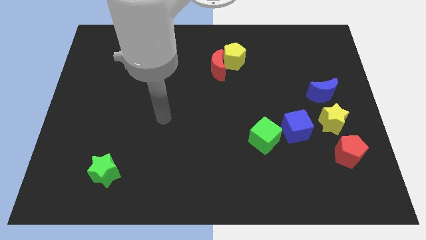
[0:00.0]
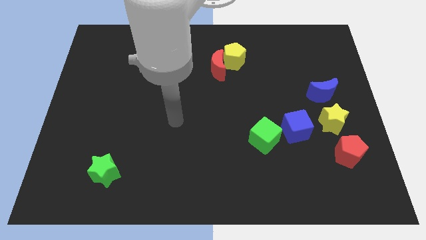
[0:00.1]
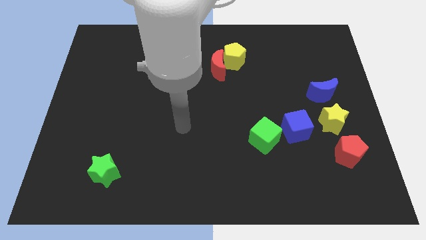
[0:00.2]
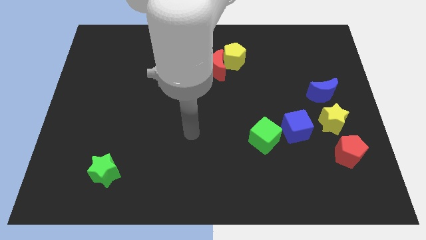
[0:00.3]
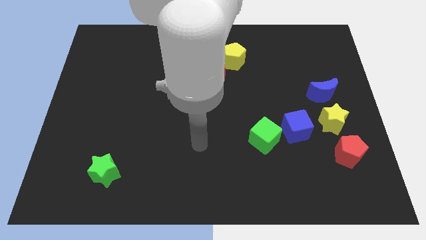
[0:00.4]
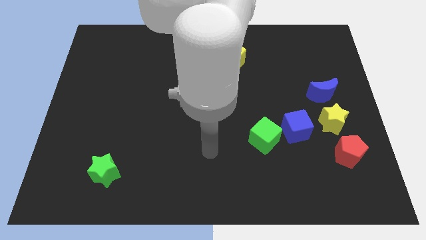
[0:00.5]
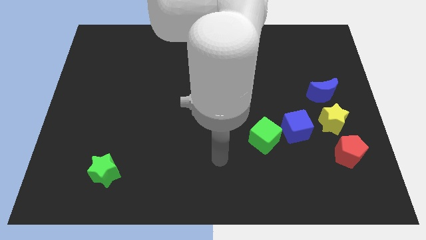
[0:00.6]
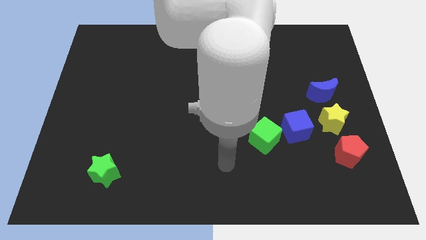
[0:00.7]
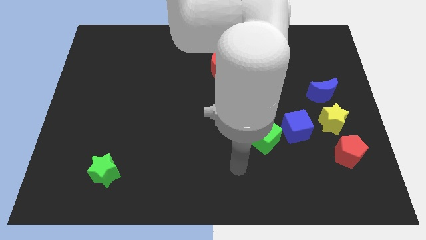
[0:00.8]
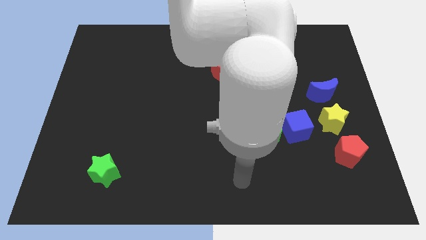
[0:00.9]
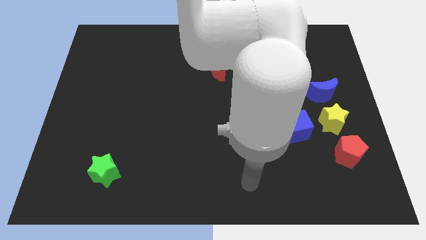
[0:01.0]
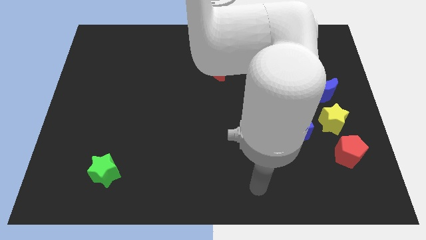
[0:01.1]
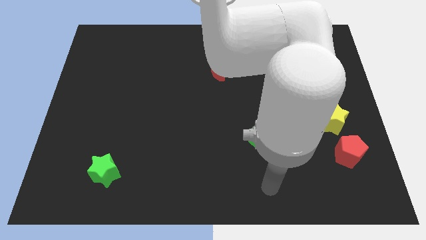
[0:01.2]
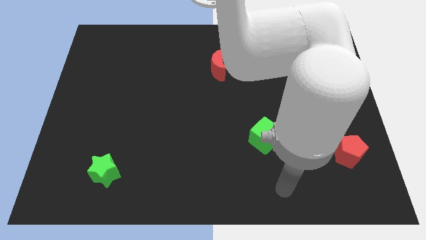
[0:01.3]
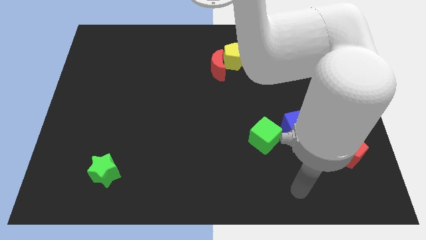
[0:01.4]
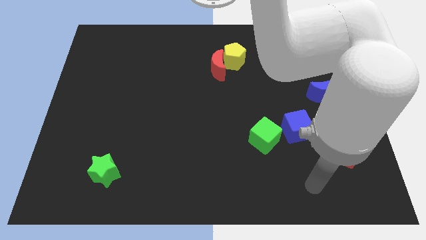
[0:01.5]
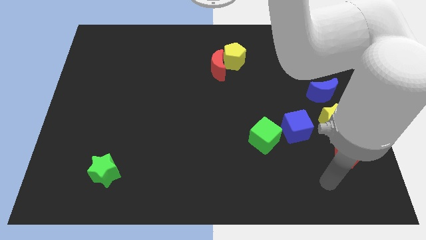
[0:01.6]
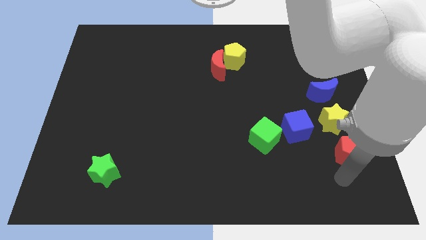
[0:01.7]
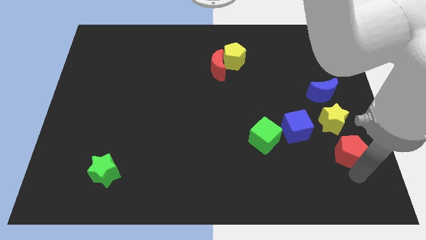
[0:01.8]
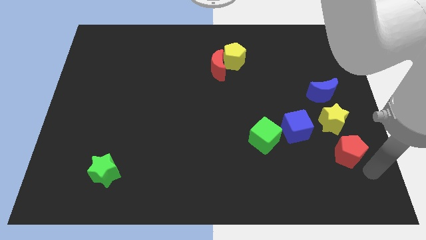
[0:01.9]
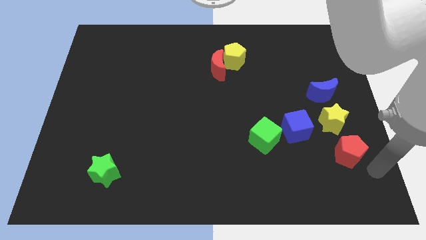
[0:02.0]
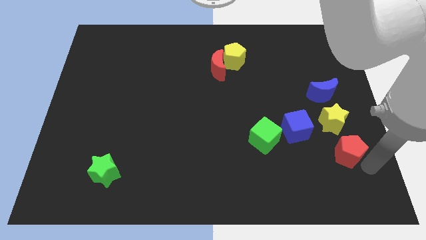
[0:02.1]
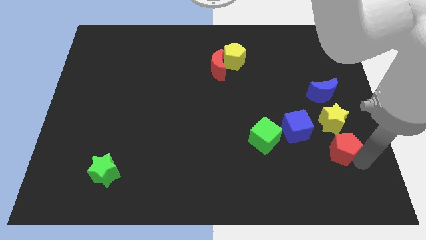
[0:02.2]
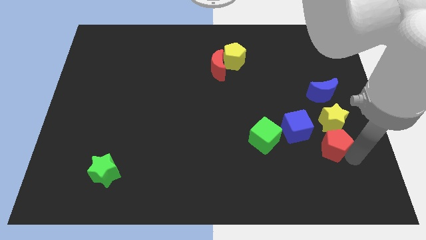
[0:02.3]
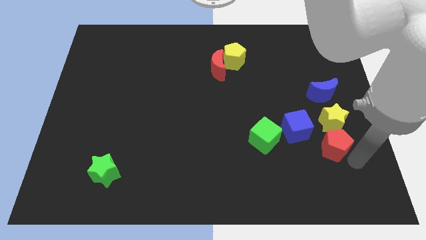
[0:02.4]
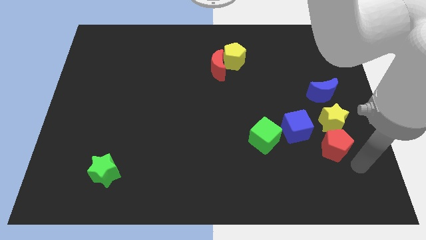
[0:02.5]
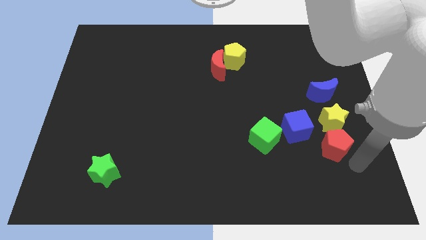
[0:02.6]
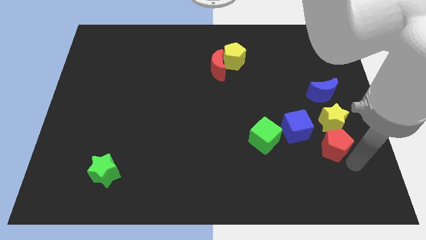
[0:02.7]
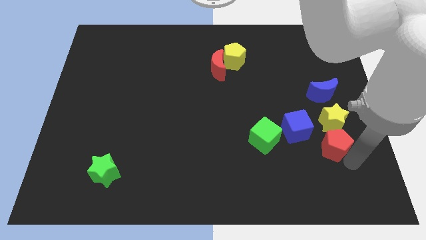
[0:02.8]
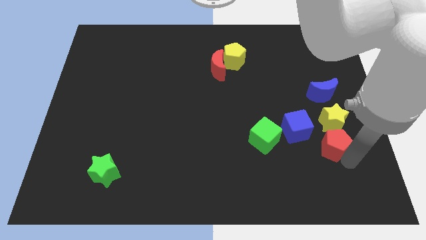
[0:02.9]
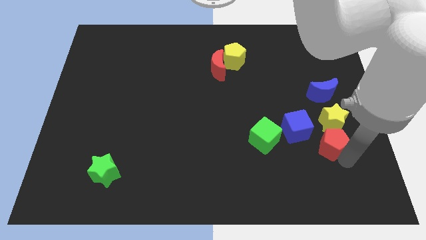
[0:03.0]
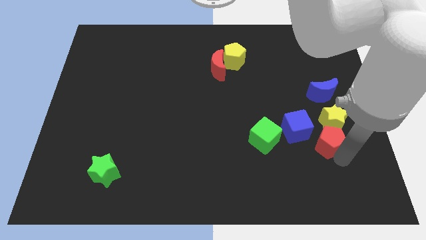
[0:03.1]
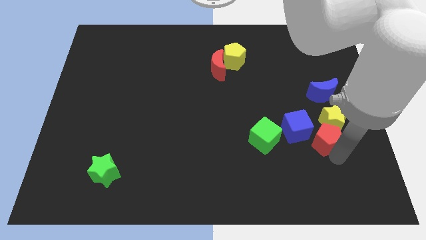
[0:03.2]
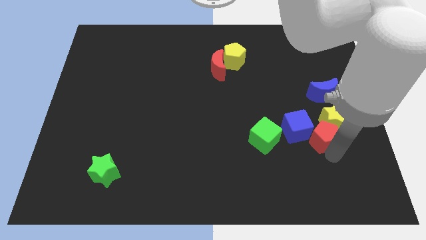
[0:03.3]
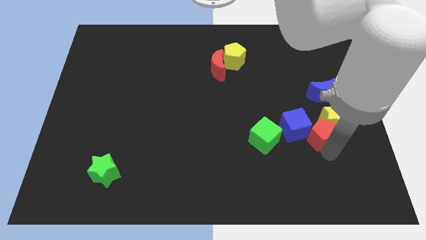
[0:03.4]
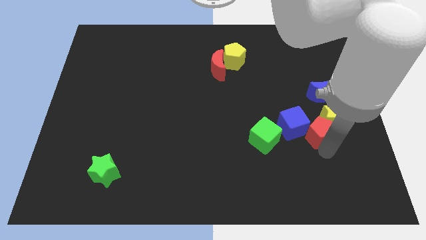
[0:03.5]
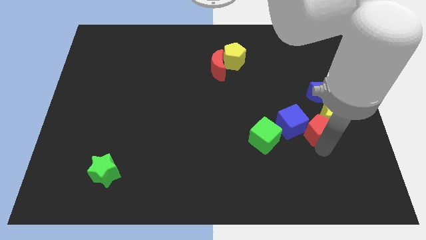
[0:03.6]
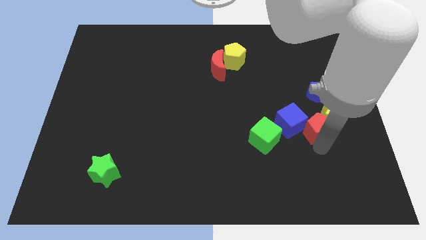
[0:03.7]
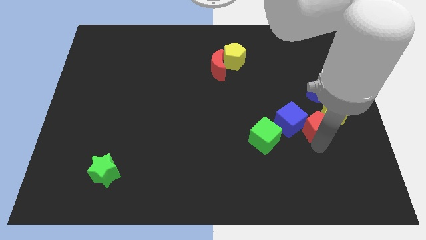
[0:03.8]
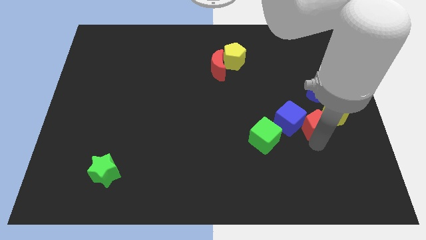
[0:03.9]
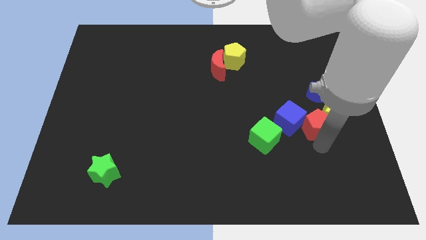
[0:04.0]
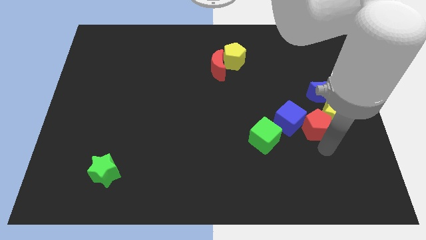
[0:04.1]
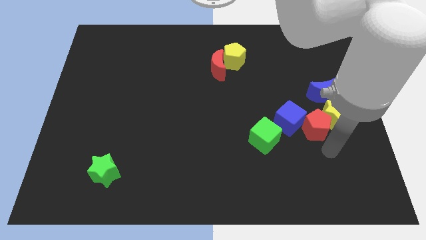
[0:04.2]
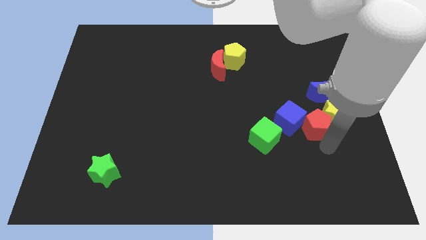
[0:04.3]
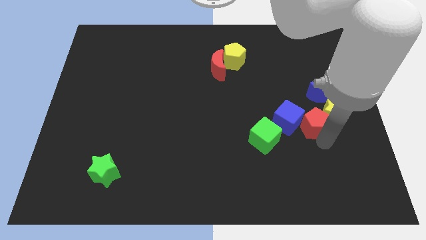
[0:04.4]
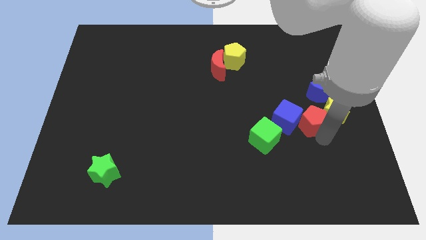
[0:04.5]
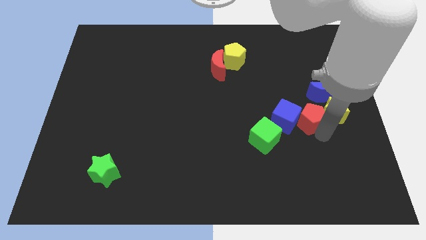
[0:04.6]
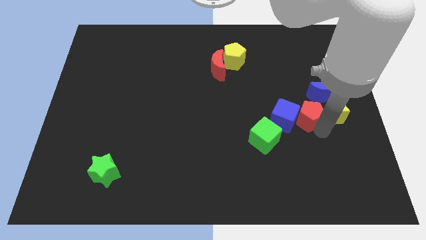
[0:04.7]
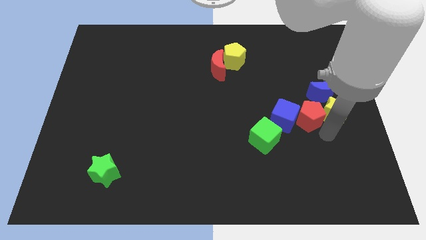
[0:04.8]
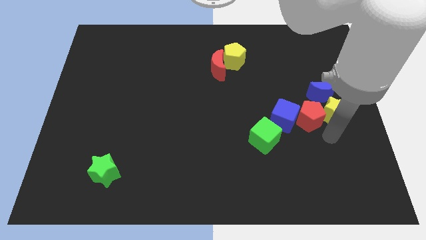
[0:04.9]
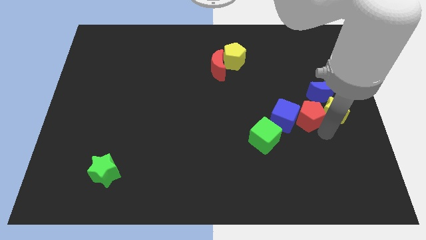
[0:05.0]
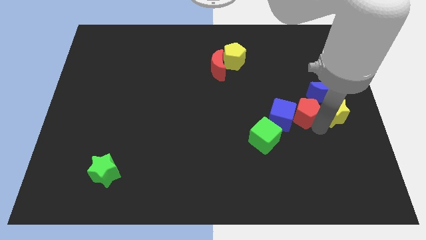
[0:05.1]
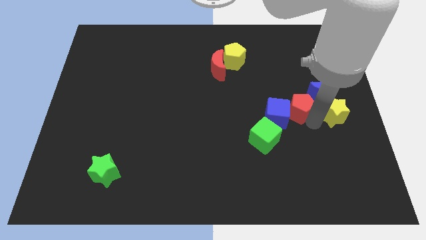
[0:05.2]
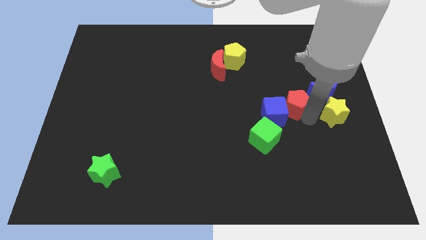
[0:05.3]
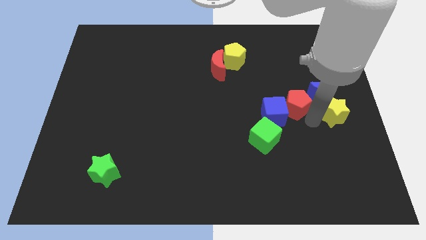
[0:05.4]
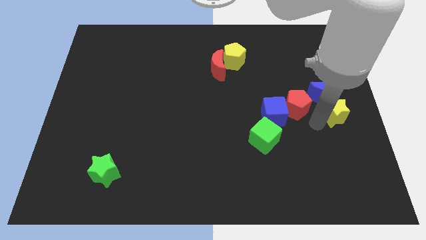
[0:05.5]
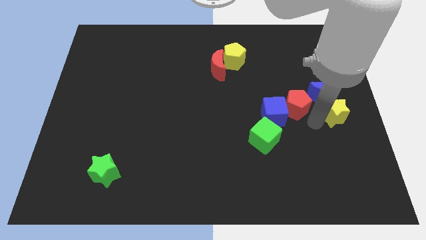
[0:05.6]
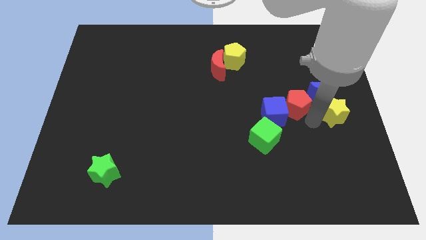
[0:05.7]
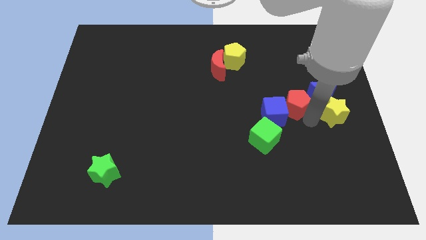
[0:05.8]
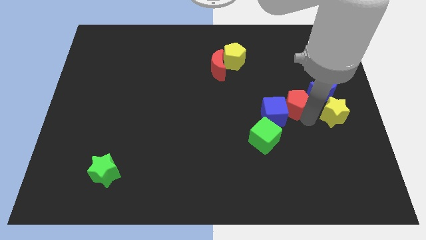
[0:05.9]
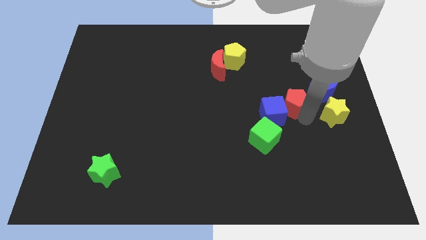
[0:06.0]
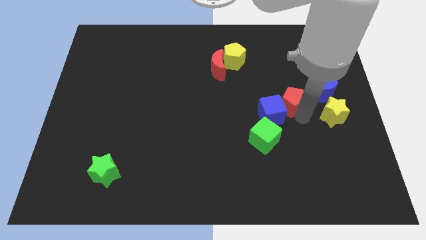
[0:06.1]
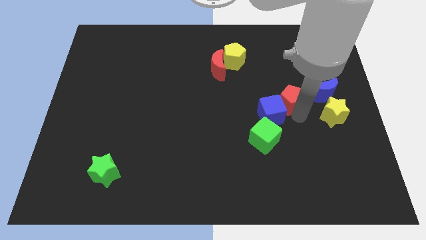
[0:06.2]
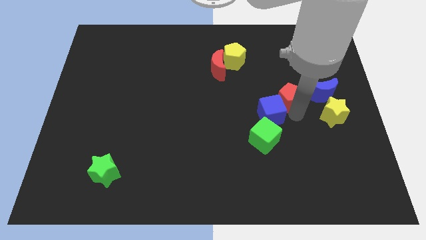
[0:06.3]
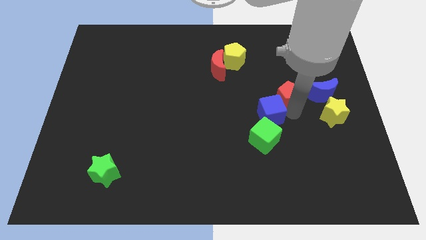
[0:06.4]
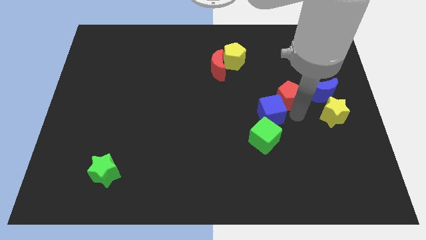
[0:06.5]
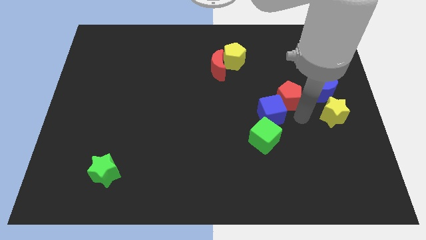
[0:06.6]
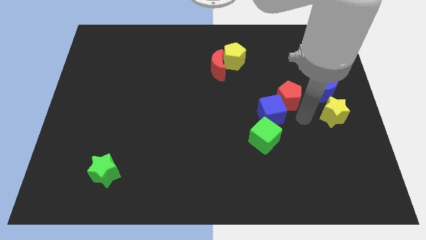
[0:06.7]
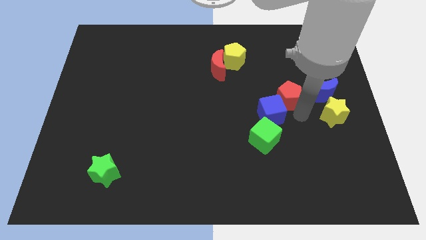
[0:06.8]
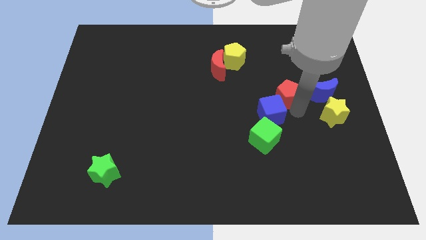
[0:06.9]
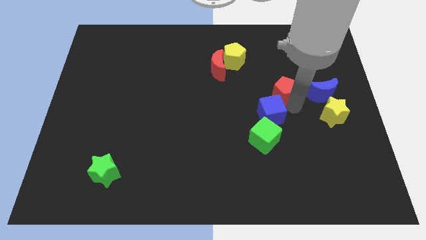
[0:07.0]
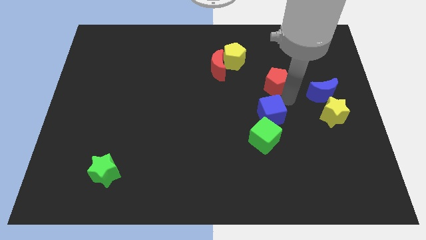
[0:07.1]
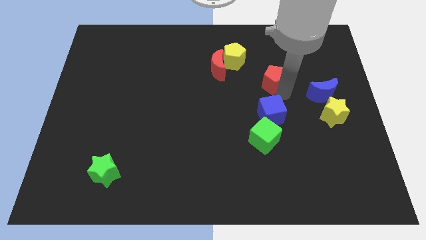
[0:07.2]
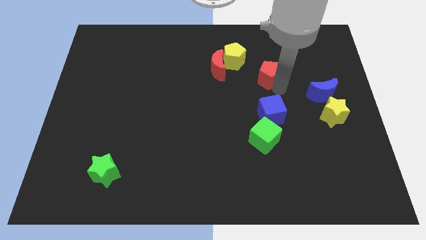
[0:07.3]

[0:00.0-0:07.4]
slide the red pentagon to the right of the red moon

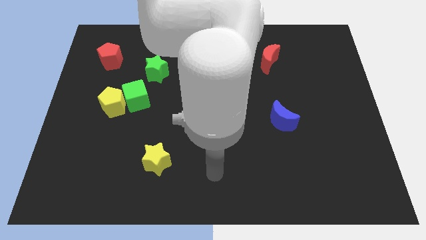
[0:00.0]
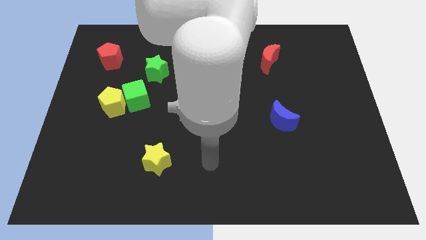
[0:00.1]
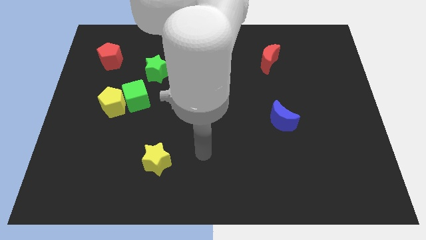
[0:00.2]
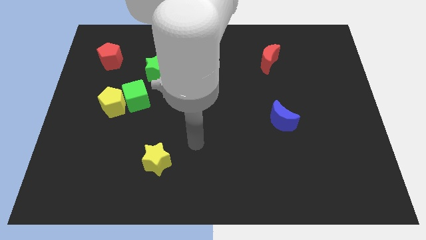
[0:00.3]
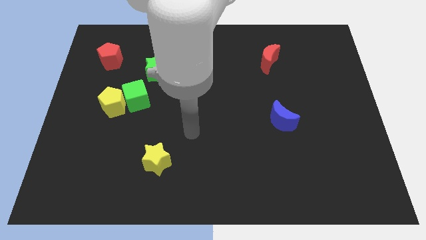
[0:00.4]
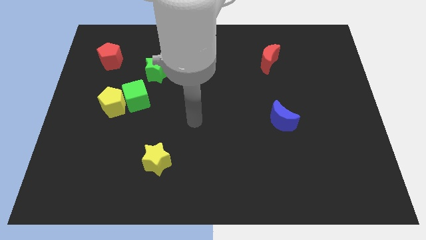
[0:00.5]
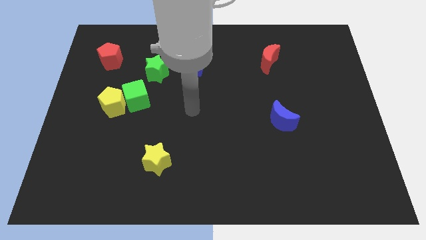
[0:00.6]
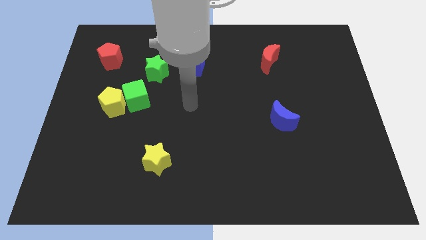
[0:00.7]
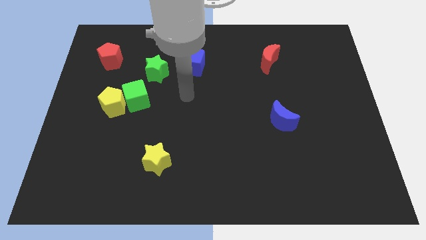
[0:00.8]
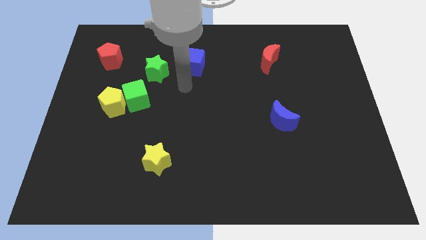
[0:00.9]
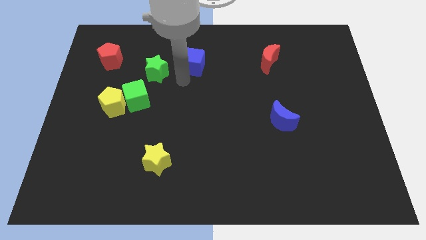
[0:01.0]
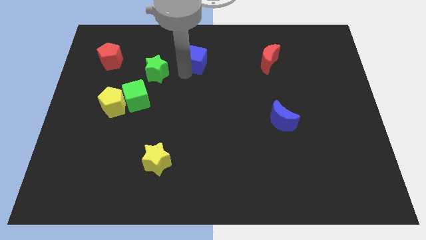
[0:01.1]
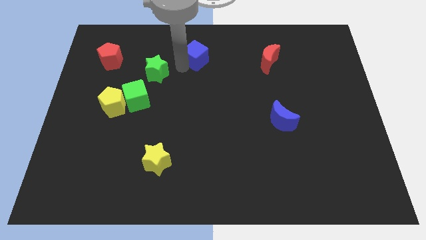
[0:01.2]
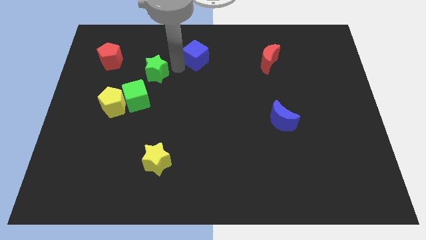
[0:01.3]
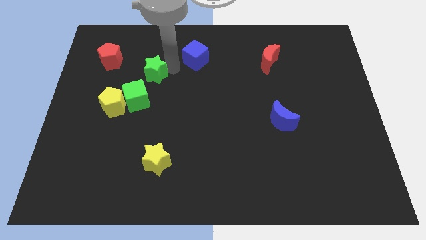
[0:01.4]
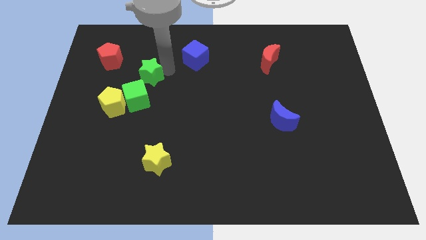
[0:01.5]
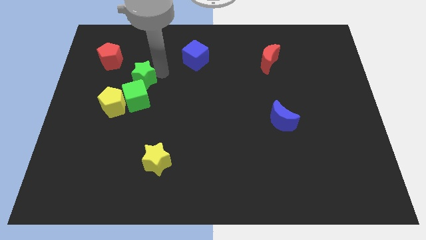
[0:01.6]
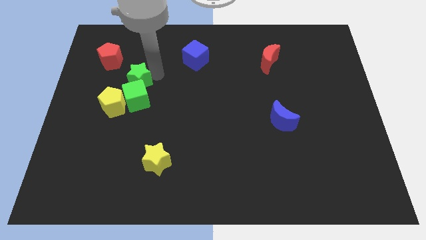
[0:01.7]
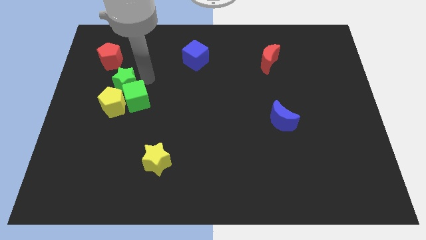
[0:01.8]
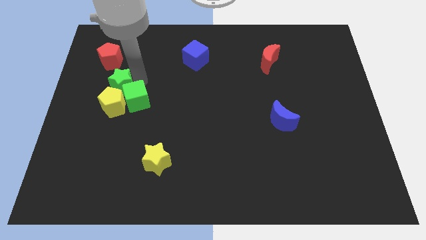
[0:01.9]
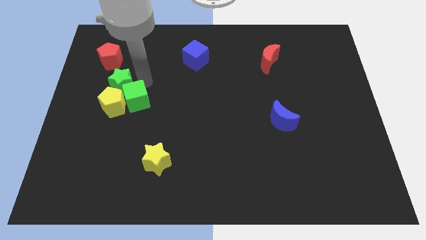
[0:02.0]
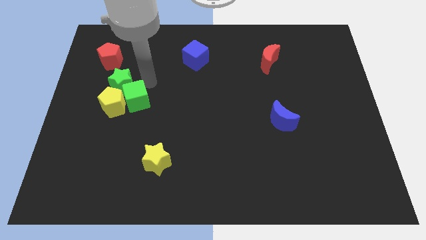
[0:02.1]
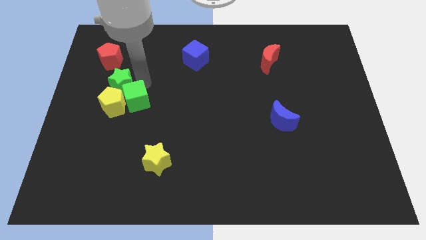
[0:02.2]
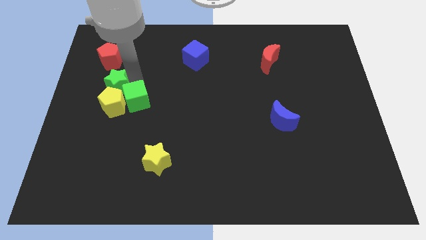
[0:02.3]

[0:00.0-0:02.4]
slide the green star to the top left of the yellow pentagon
